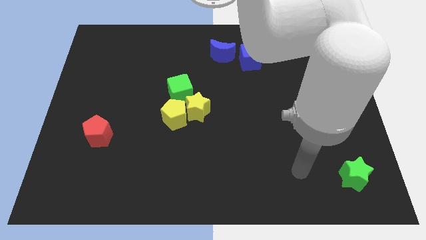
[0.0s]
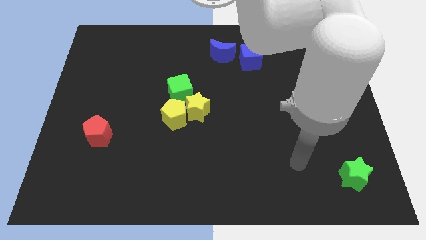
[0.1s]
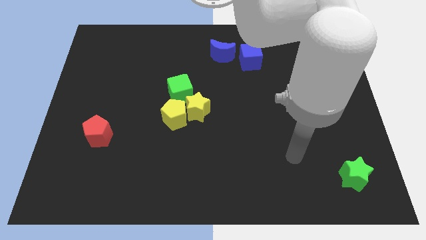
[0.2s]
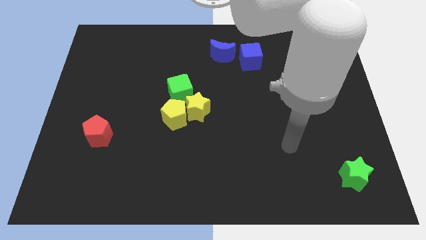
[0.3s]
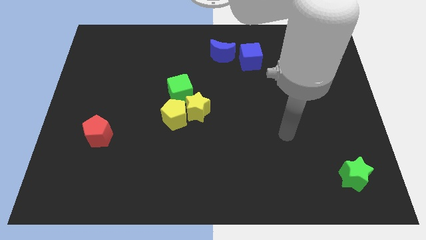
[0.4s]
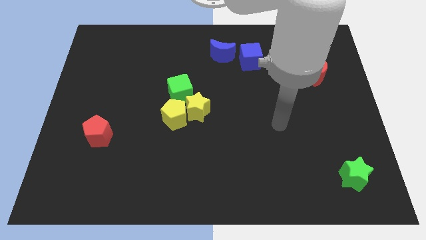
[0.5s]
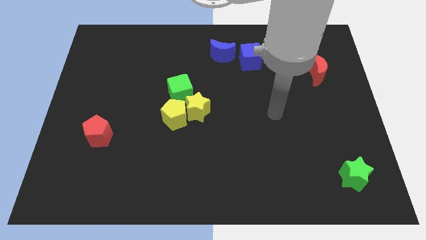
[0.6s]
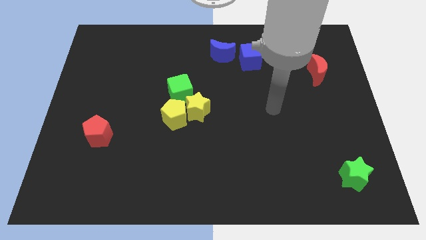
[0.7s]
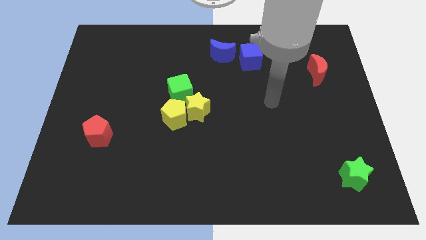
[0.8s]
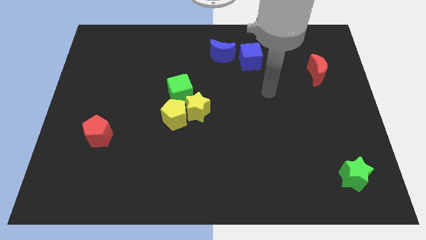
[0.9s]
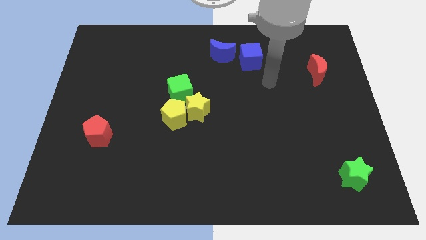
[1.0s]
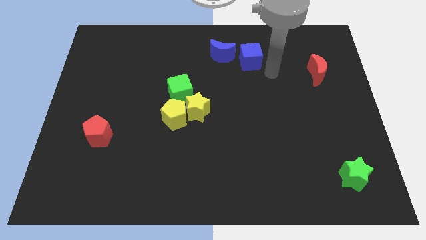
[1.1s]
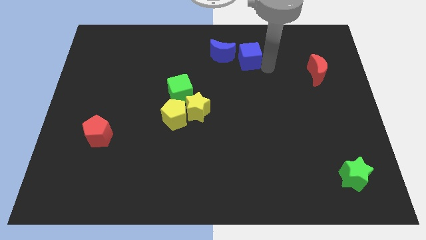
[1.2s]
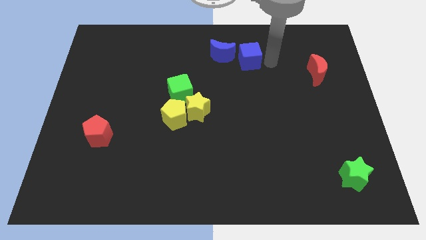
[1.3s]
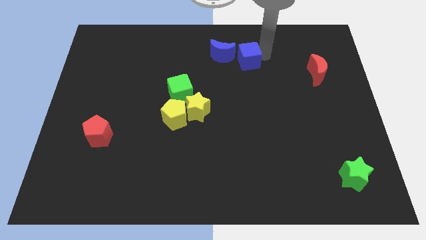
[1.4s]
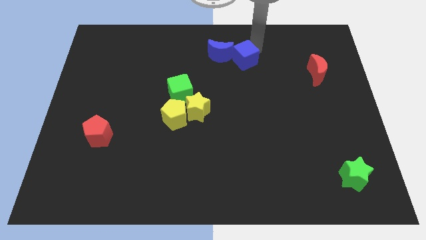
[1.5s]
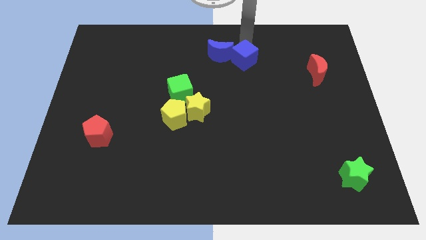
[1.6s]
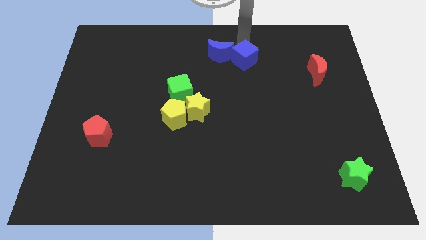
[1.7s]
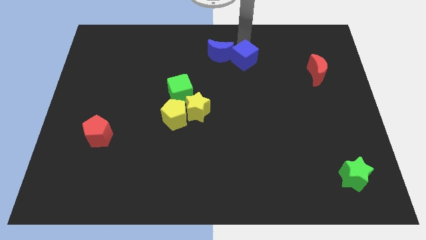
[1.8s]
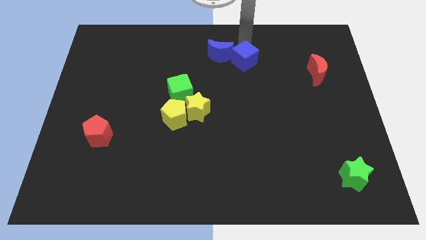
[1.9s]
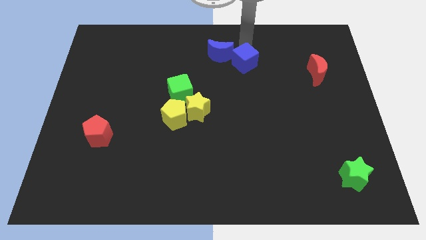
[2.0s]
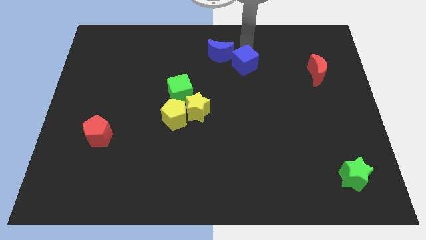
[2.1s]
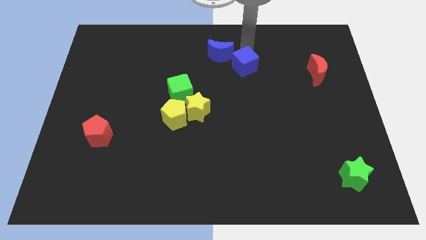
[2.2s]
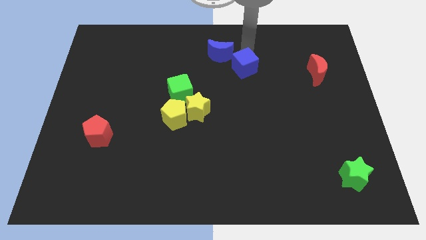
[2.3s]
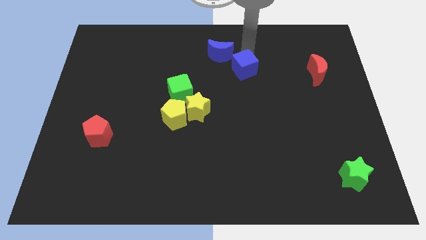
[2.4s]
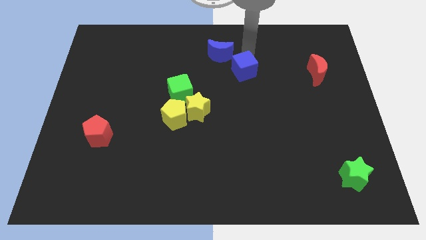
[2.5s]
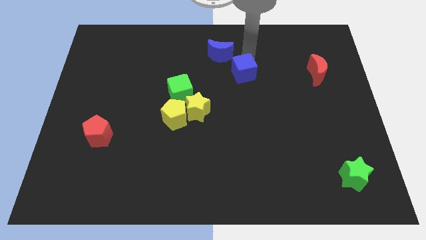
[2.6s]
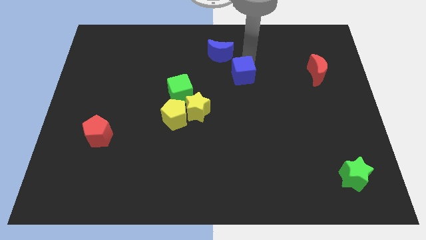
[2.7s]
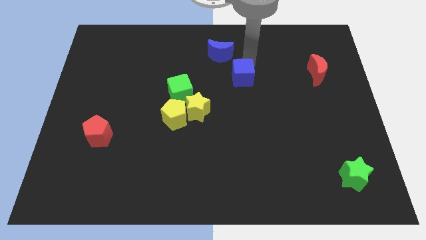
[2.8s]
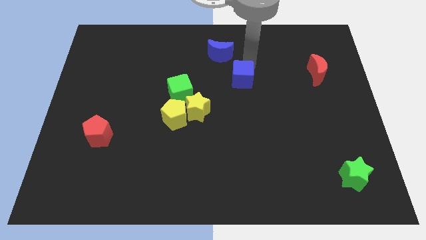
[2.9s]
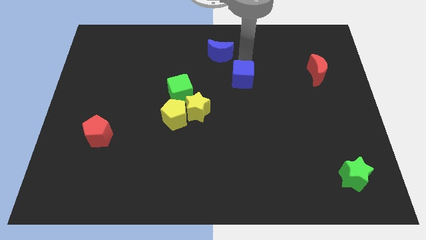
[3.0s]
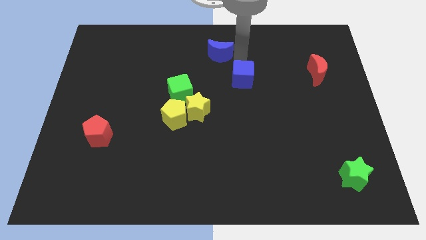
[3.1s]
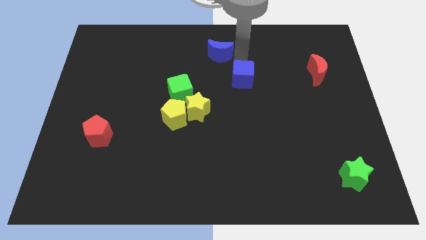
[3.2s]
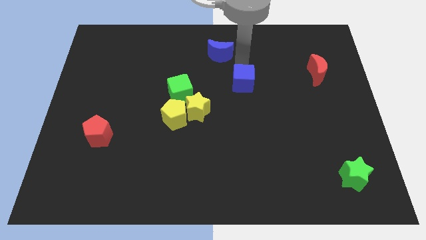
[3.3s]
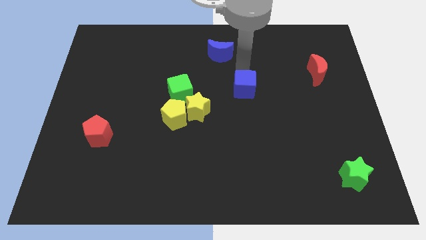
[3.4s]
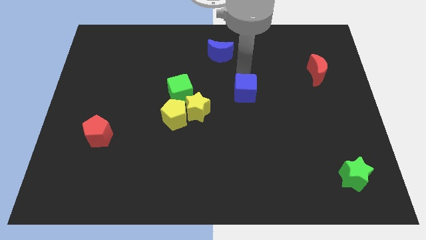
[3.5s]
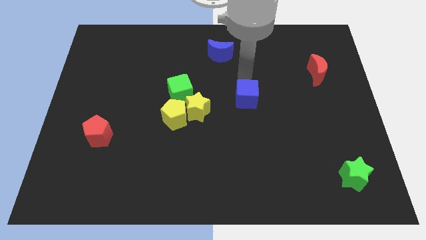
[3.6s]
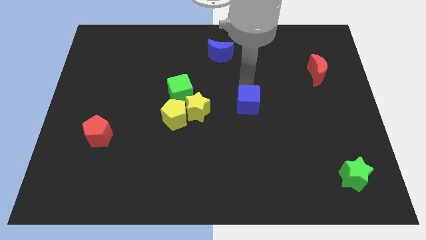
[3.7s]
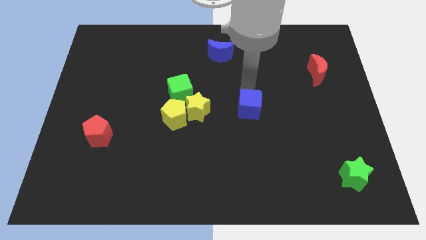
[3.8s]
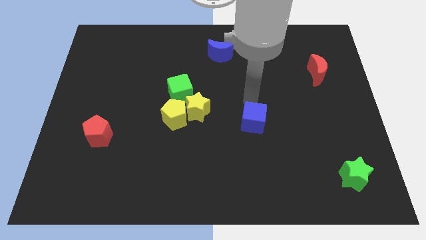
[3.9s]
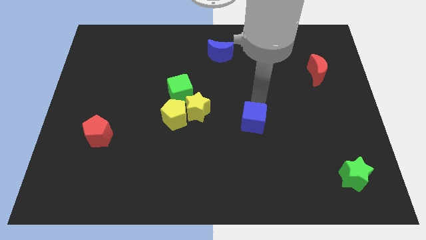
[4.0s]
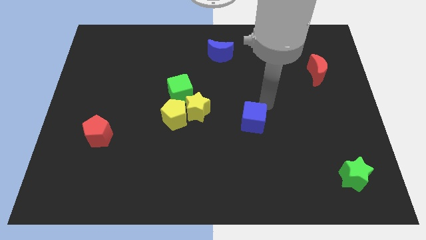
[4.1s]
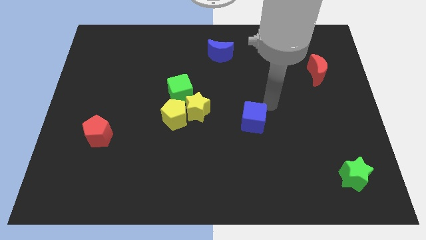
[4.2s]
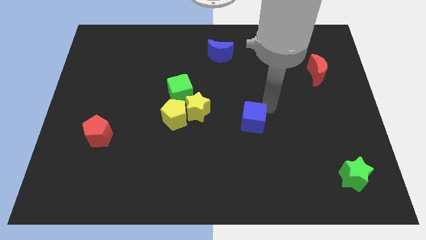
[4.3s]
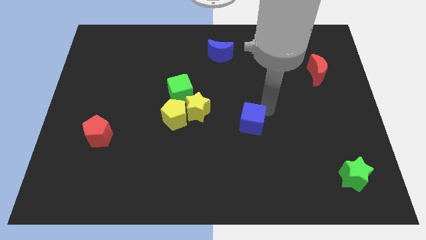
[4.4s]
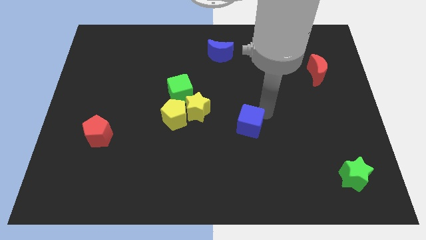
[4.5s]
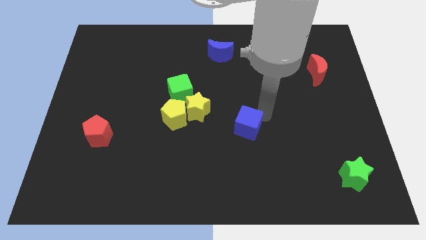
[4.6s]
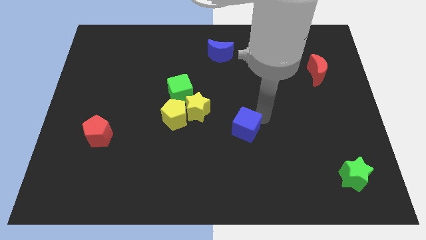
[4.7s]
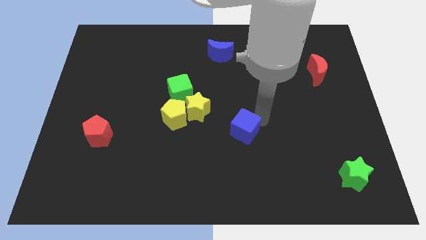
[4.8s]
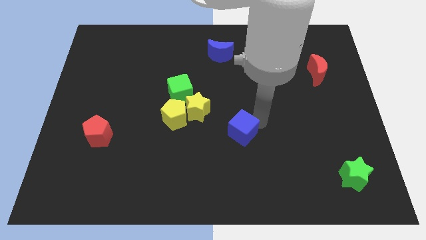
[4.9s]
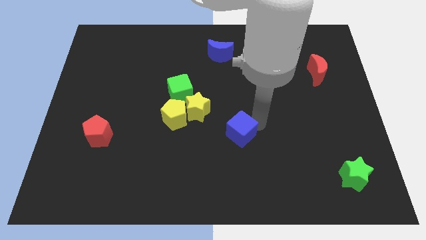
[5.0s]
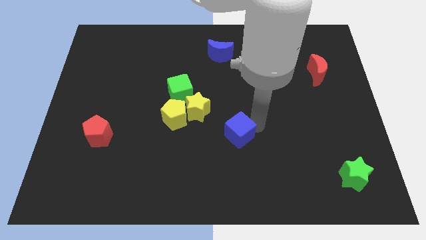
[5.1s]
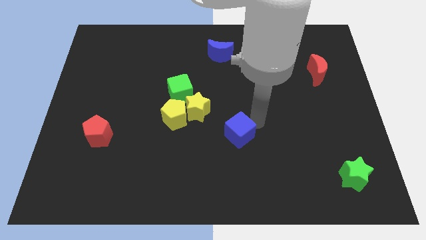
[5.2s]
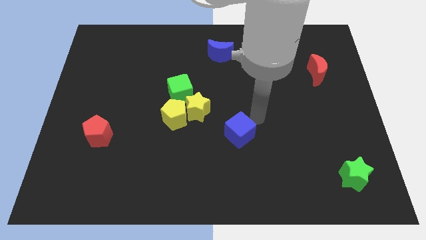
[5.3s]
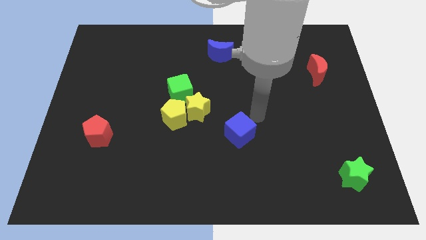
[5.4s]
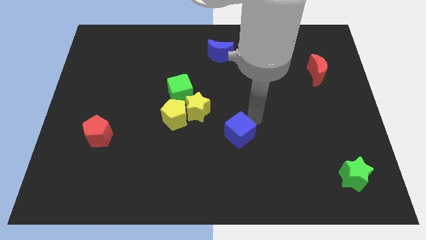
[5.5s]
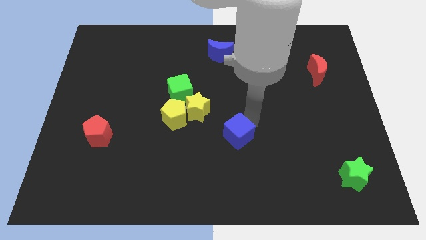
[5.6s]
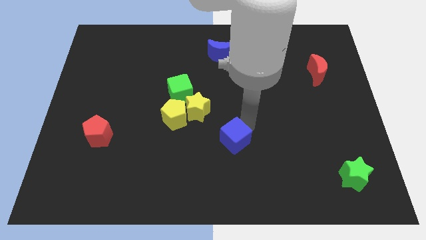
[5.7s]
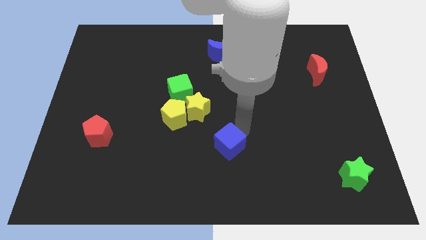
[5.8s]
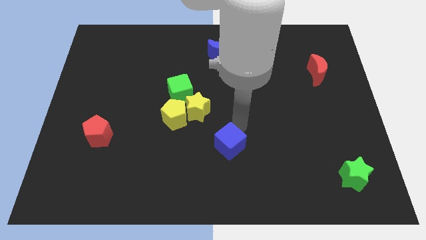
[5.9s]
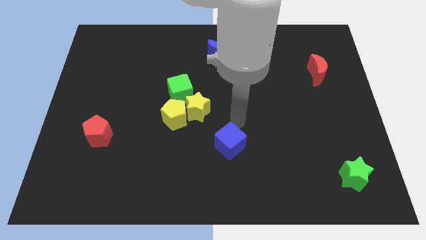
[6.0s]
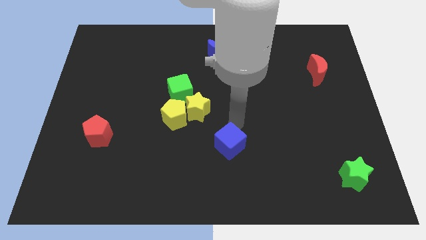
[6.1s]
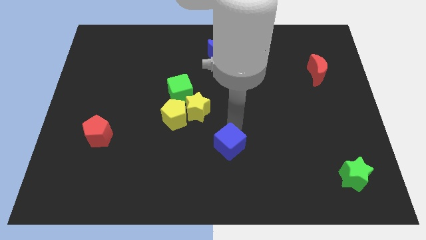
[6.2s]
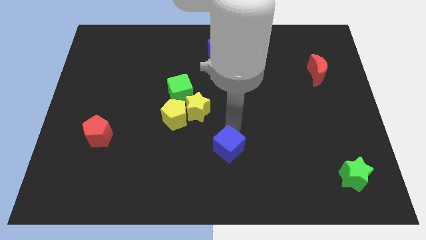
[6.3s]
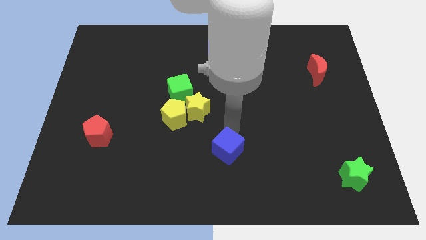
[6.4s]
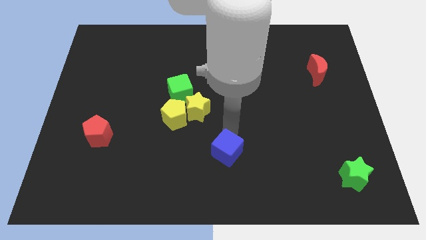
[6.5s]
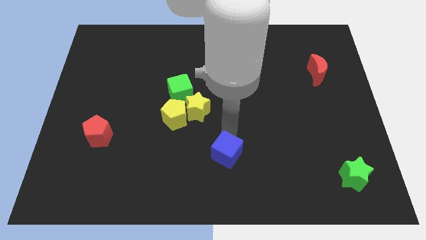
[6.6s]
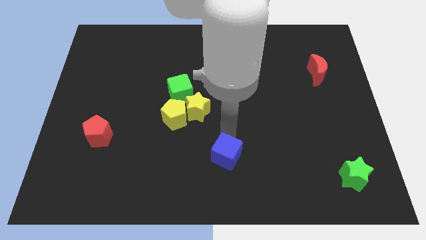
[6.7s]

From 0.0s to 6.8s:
push the blue cube to the bottom
